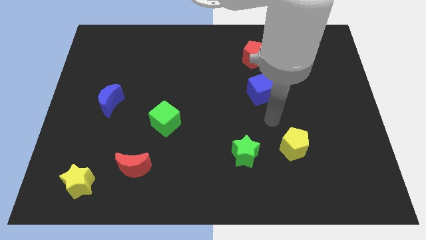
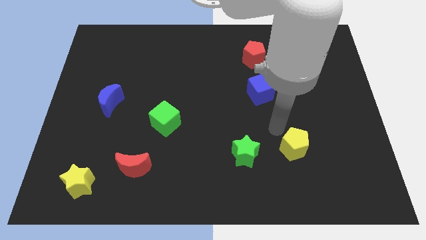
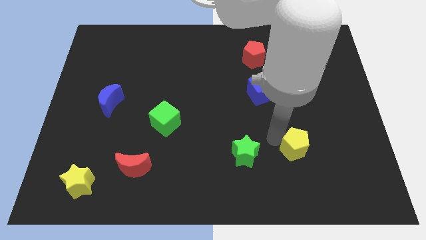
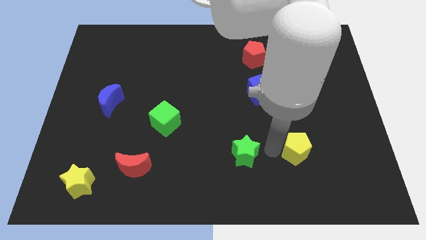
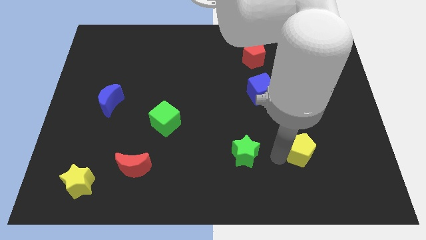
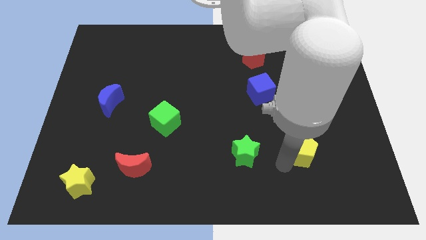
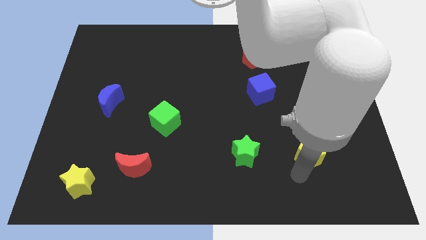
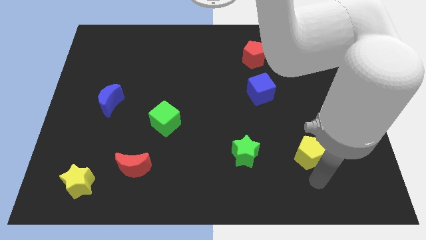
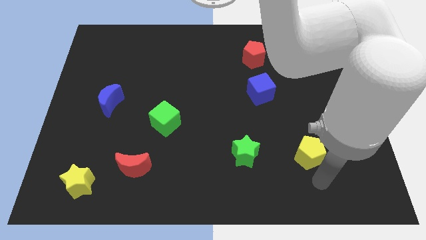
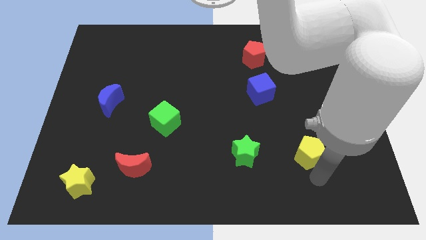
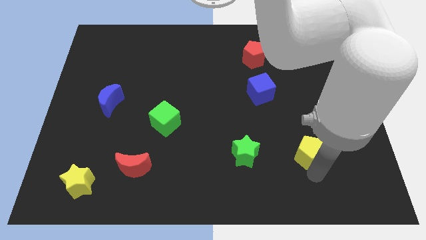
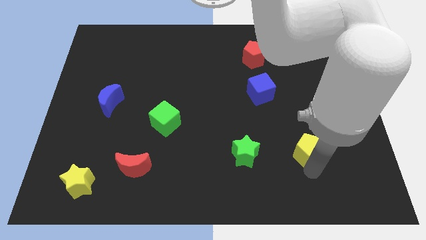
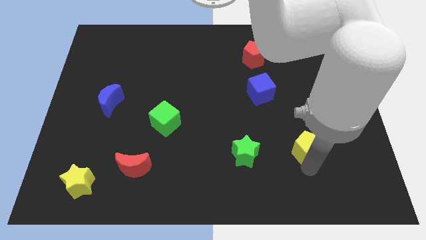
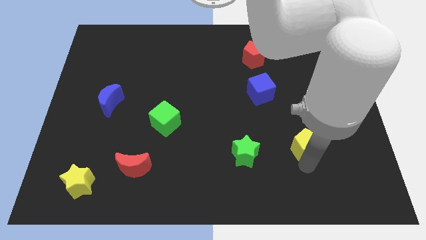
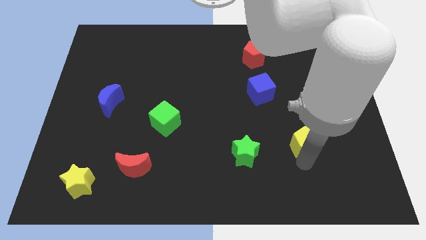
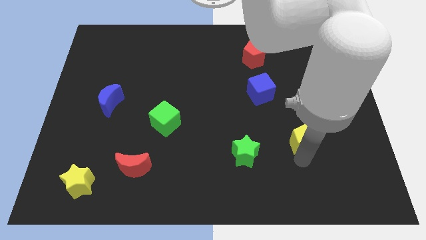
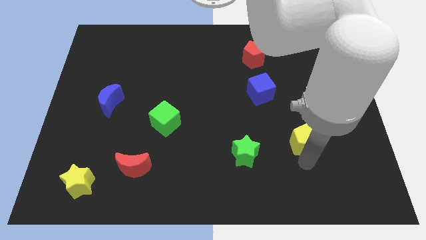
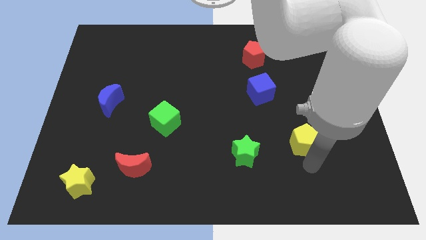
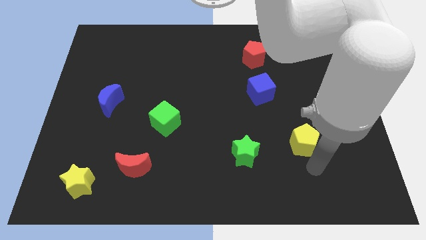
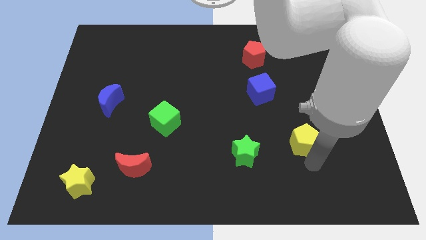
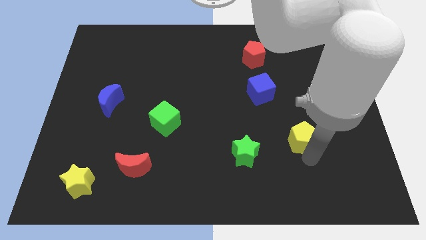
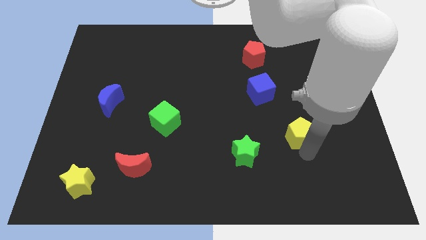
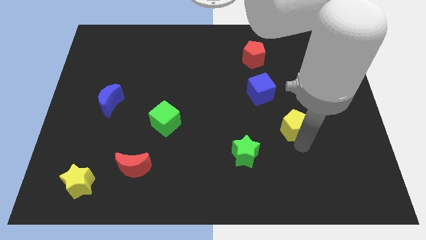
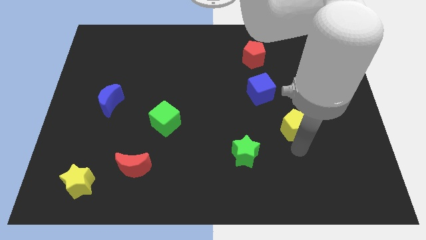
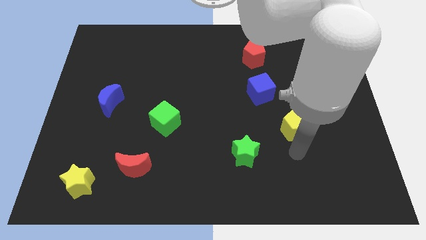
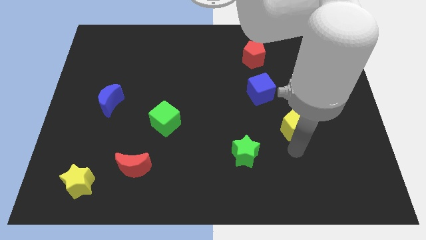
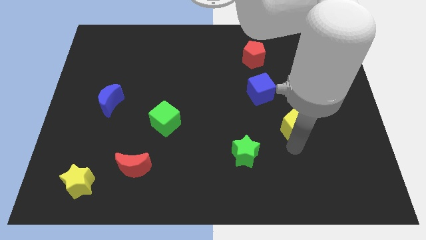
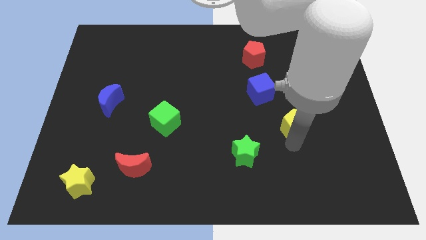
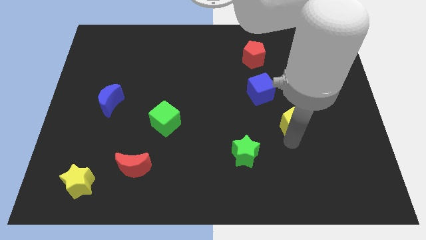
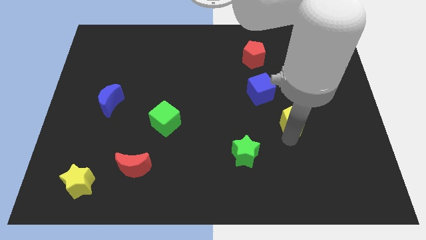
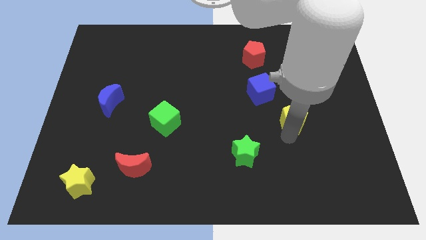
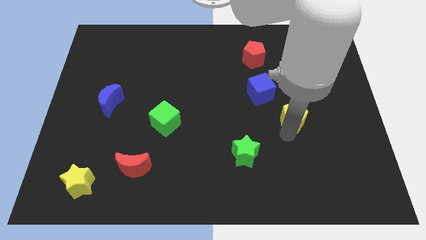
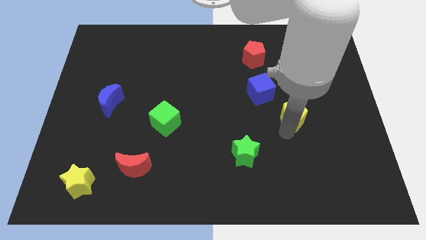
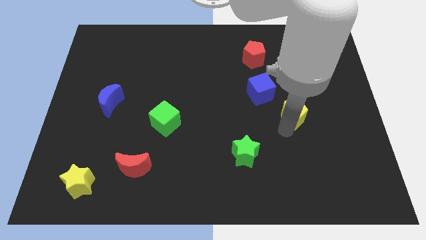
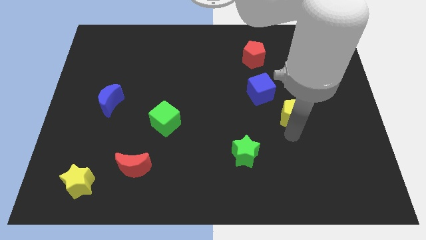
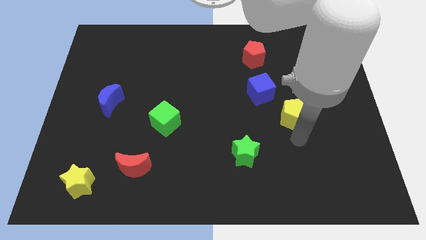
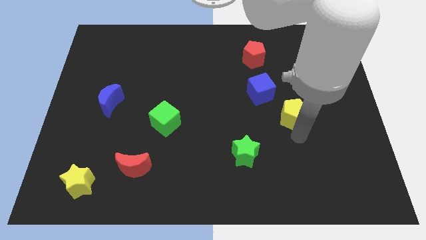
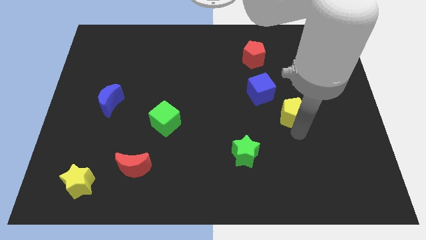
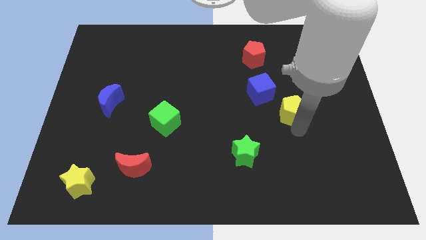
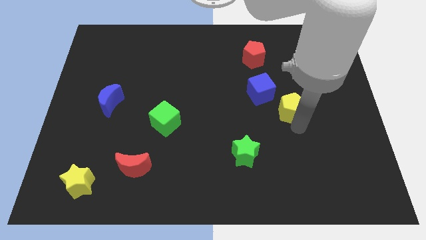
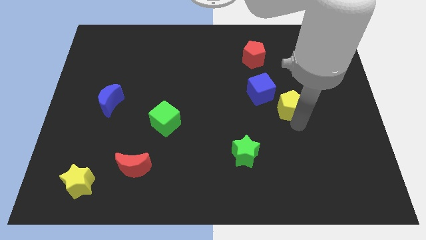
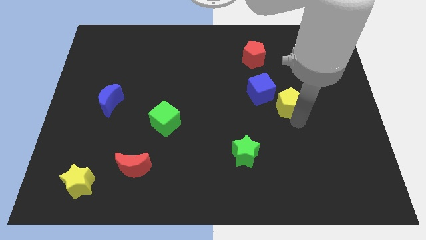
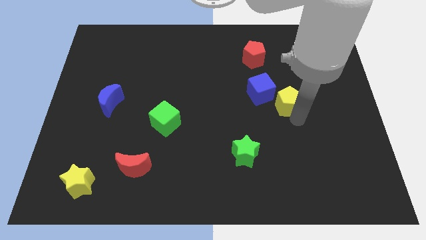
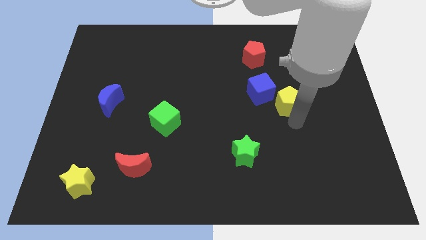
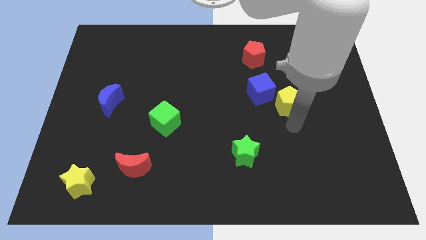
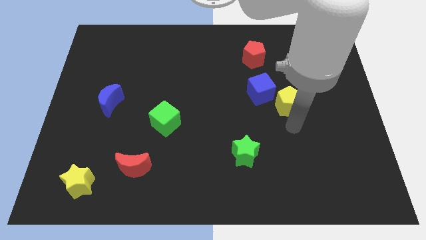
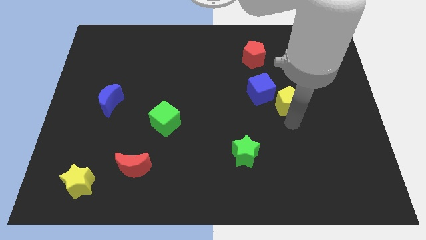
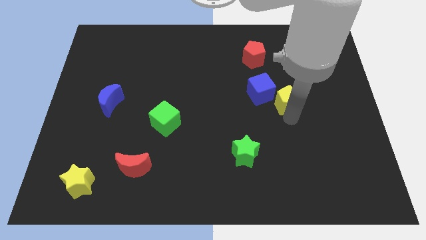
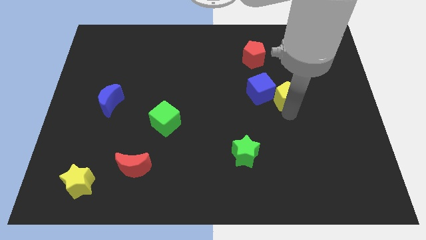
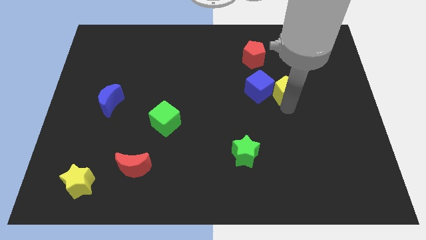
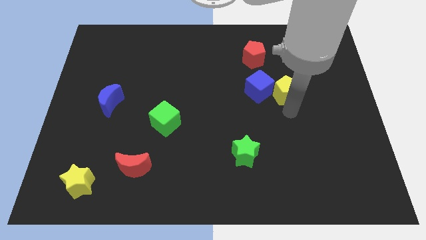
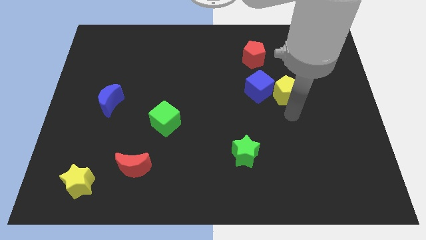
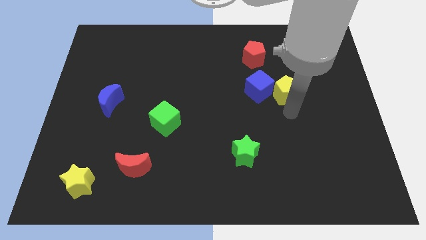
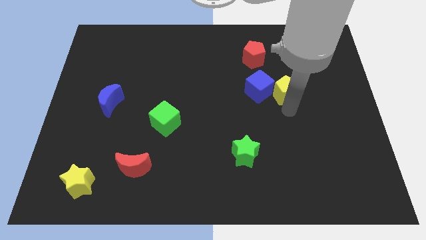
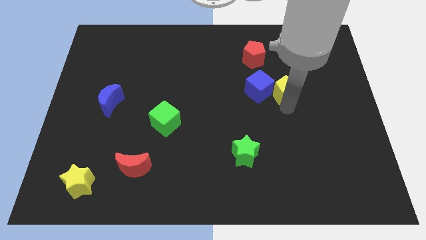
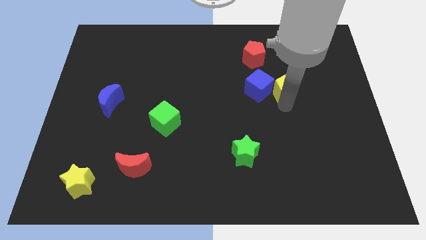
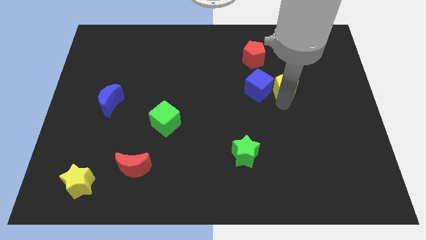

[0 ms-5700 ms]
slide the yellow pentagon to the top right of the blue cube

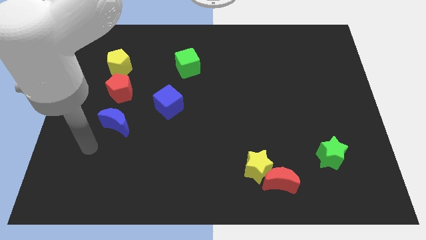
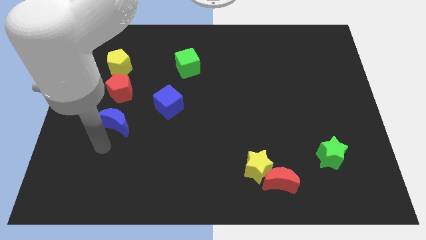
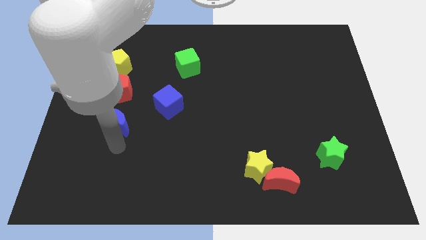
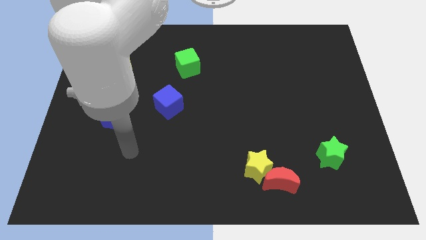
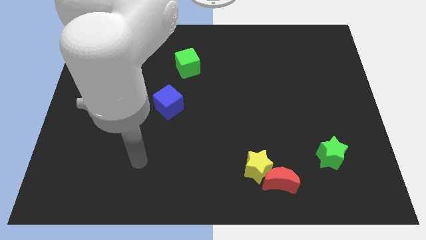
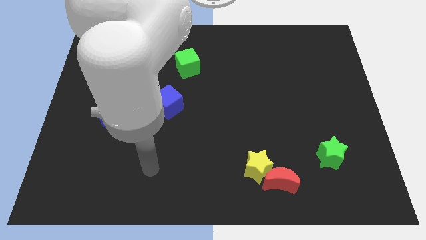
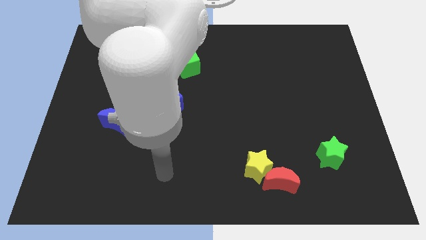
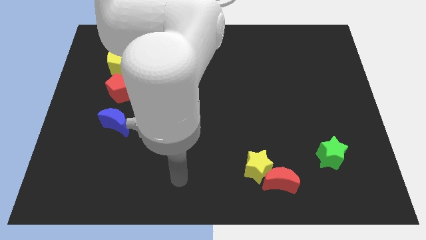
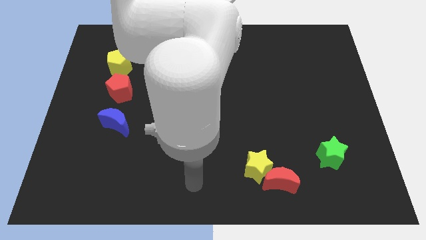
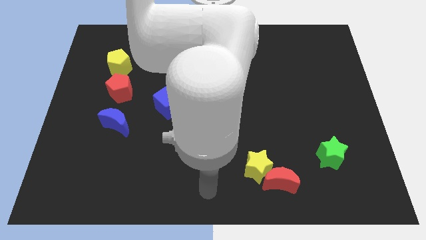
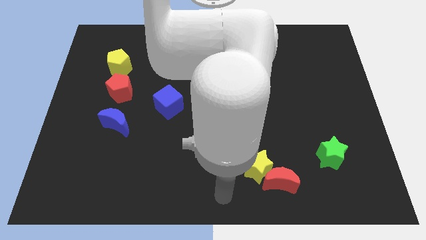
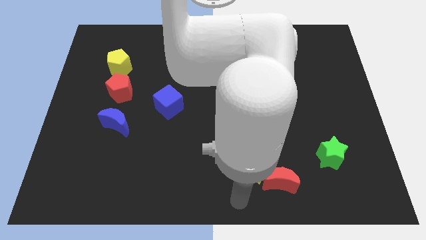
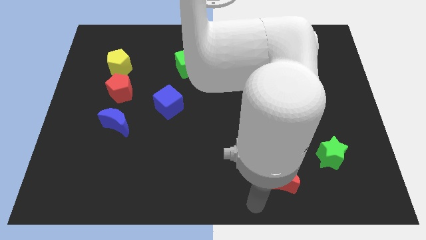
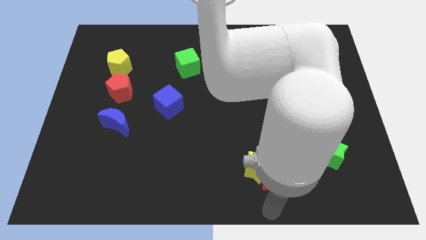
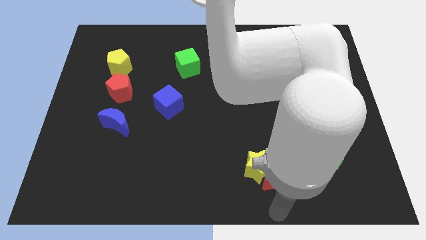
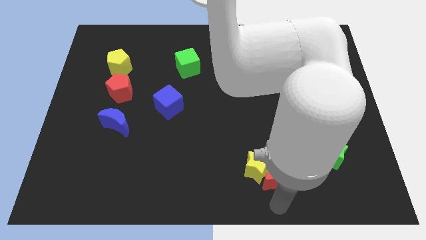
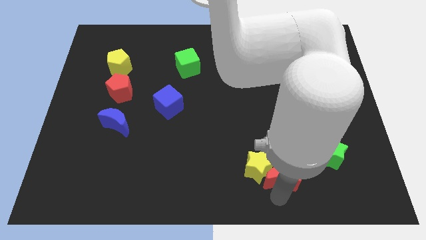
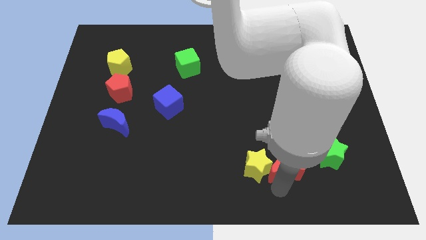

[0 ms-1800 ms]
slide the red moon just left of the green star
